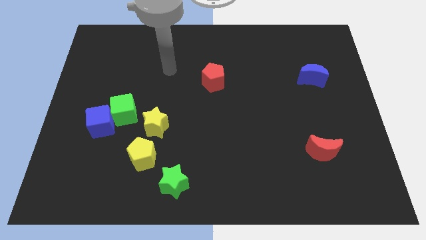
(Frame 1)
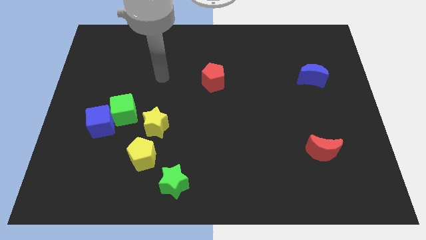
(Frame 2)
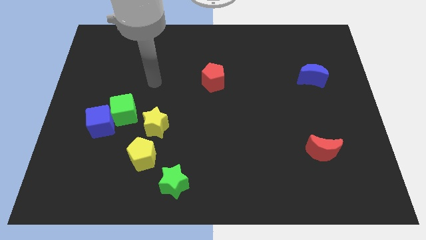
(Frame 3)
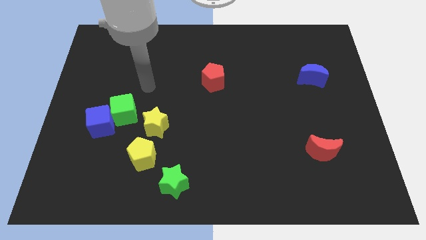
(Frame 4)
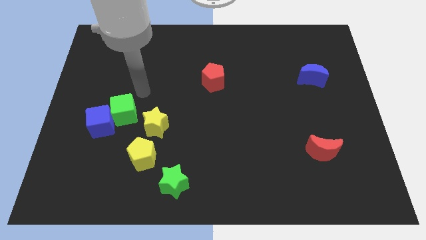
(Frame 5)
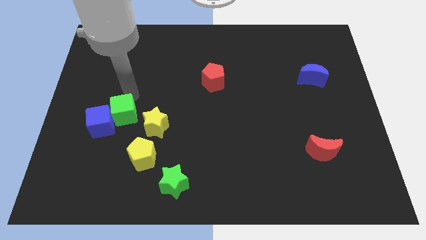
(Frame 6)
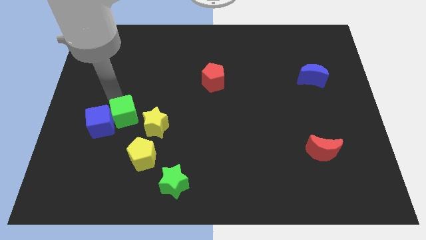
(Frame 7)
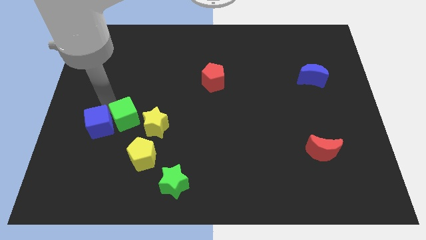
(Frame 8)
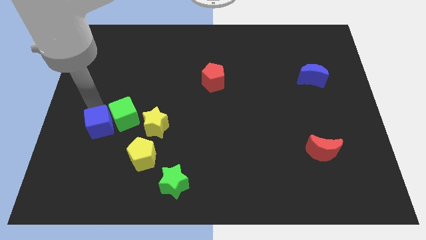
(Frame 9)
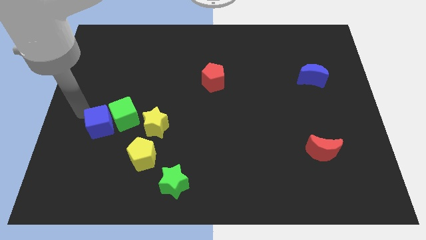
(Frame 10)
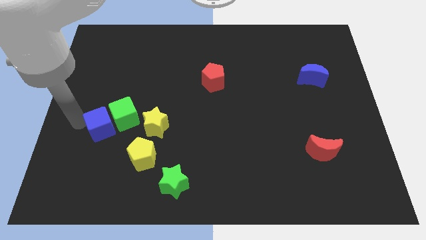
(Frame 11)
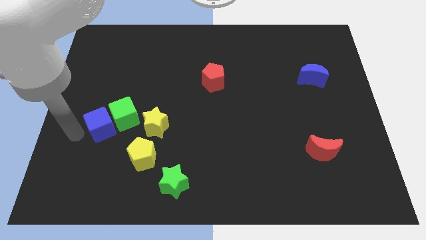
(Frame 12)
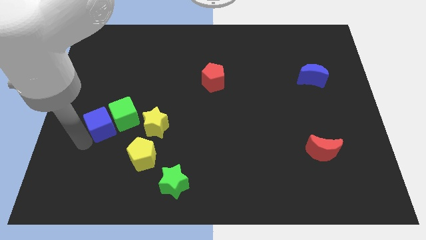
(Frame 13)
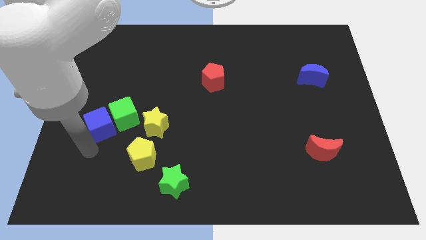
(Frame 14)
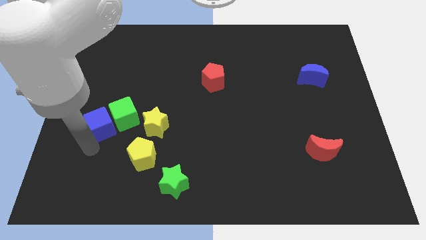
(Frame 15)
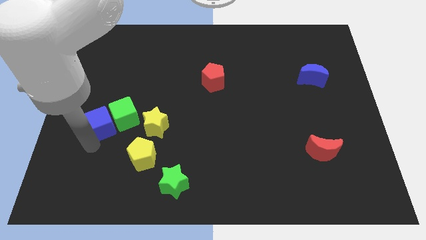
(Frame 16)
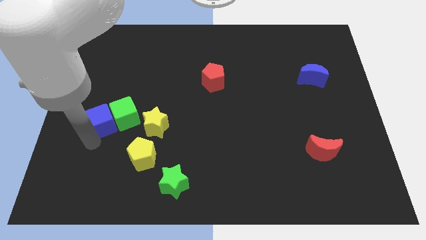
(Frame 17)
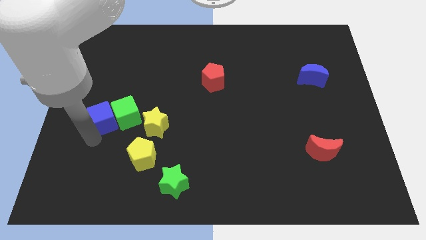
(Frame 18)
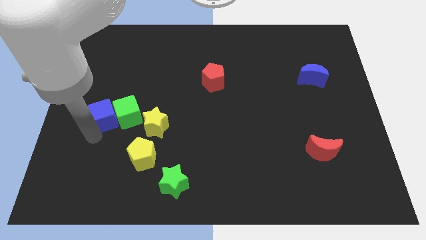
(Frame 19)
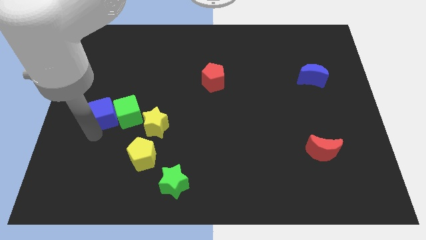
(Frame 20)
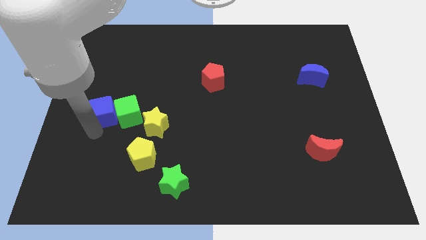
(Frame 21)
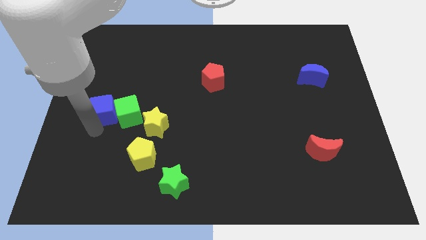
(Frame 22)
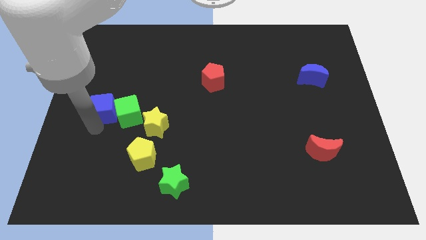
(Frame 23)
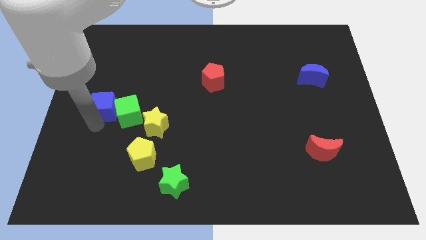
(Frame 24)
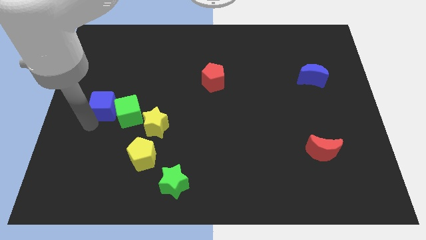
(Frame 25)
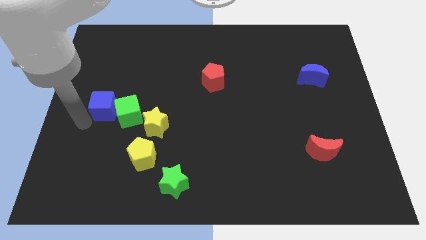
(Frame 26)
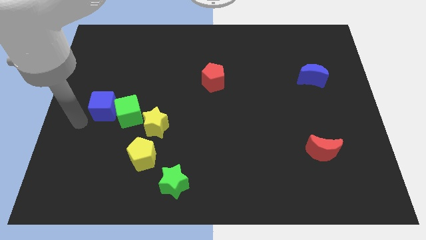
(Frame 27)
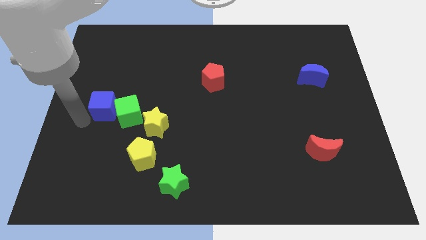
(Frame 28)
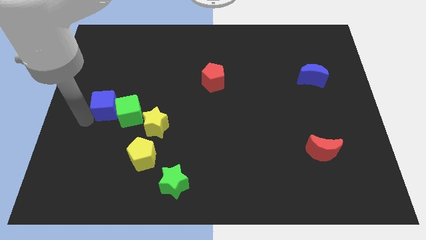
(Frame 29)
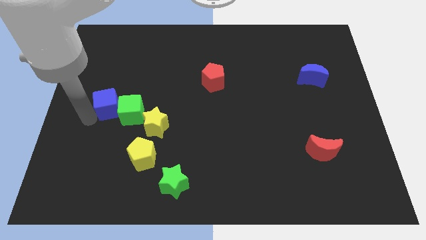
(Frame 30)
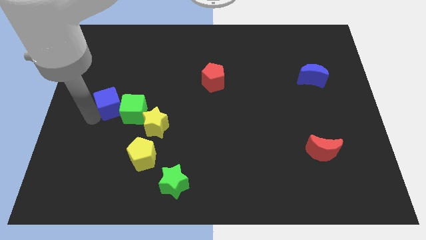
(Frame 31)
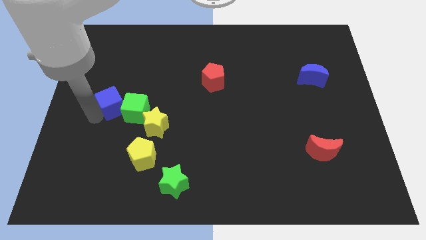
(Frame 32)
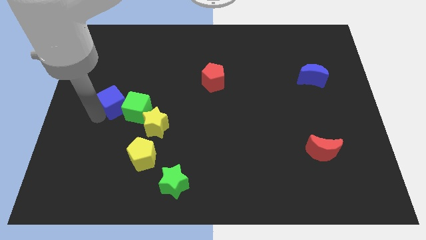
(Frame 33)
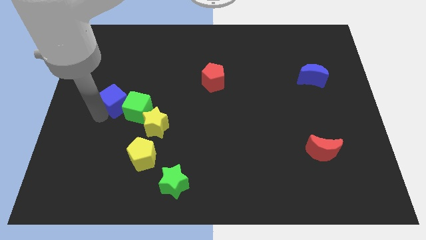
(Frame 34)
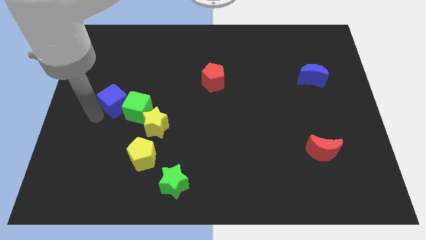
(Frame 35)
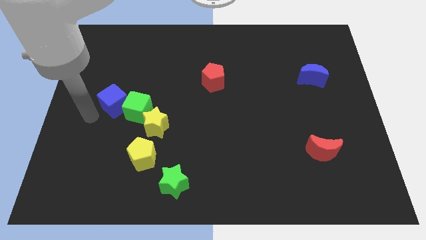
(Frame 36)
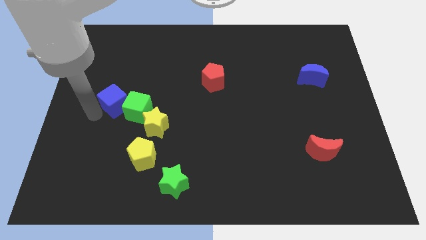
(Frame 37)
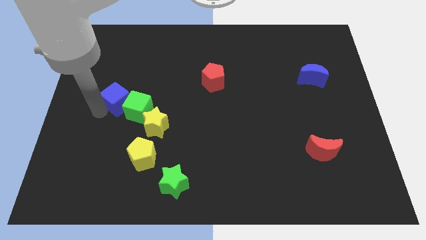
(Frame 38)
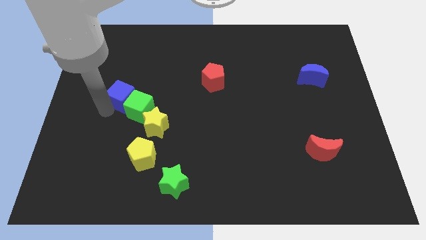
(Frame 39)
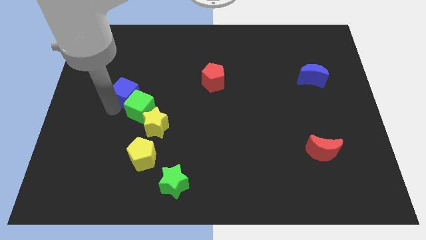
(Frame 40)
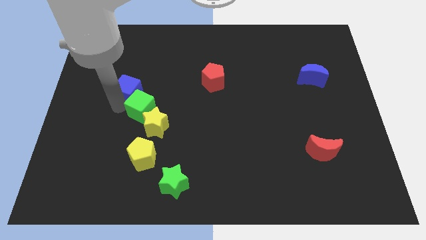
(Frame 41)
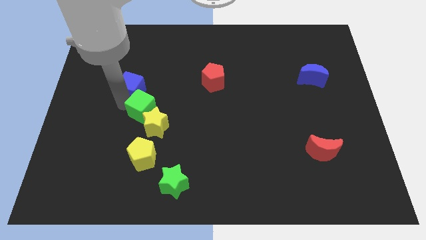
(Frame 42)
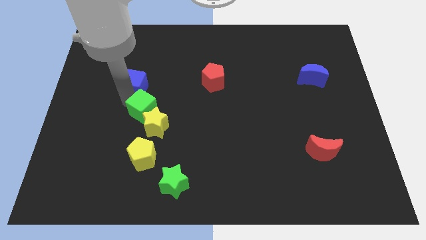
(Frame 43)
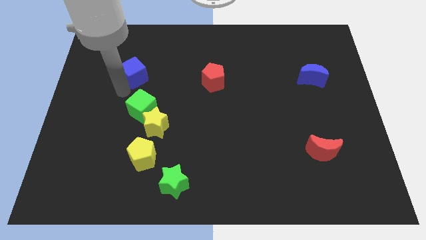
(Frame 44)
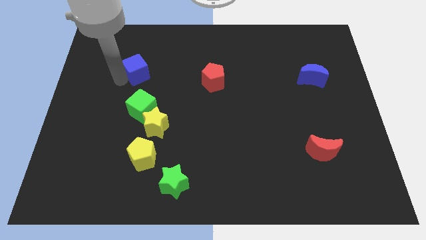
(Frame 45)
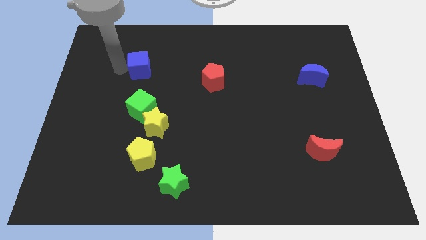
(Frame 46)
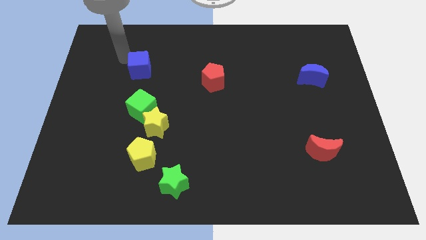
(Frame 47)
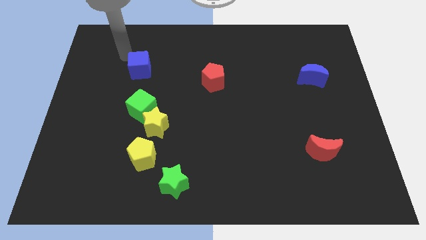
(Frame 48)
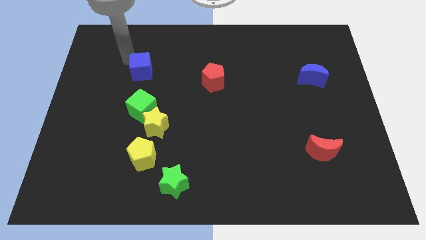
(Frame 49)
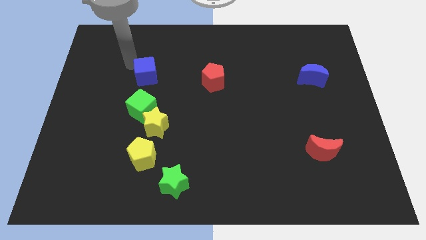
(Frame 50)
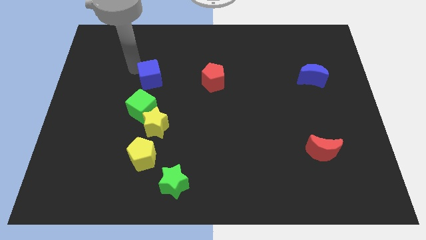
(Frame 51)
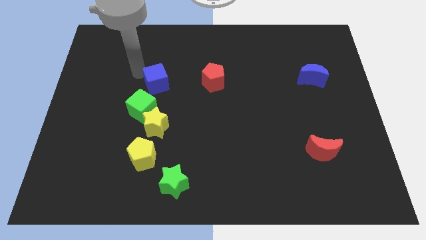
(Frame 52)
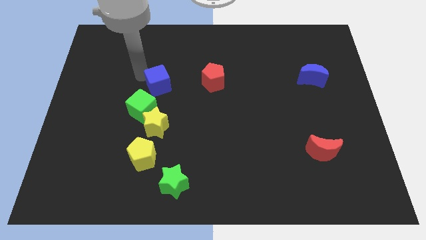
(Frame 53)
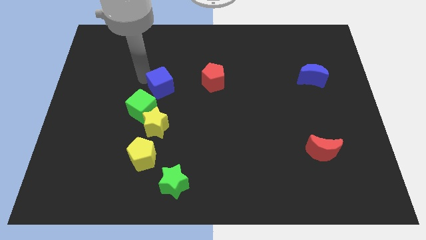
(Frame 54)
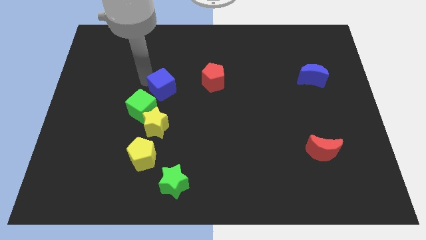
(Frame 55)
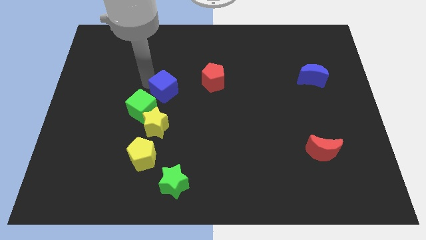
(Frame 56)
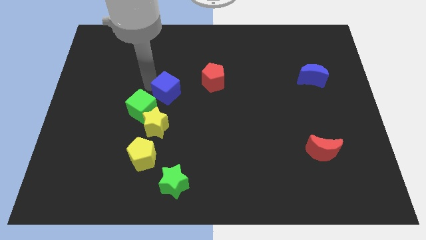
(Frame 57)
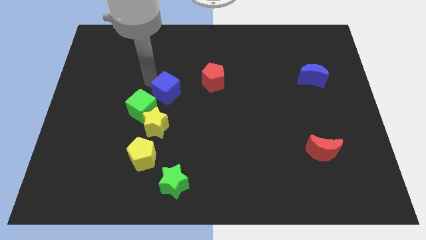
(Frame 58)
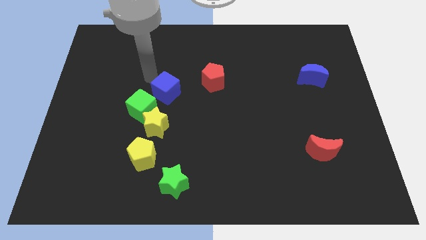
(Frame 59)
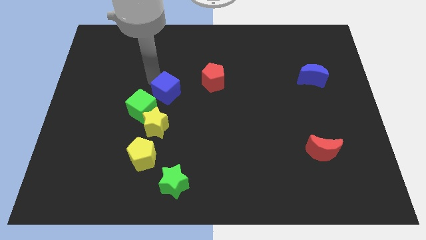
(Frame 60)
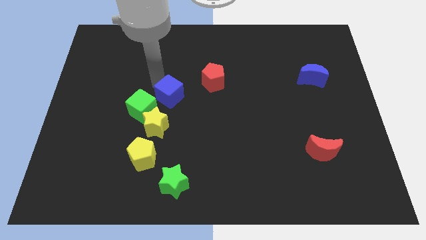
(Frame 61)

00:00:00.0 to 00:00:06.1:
push the blue cube to the right side of the green cube

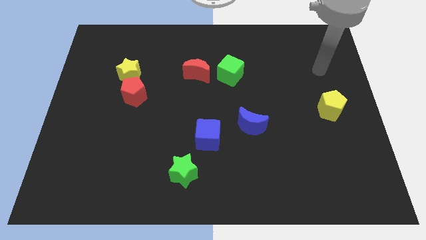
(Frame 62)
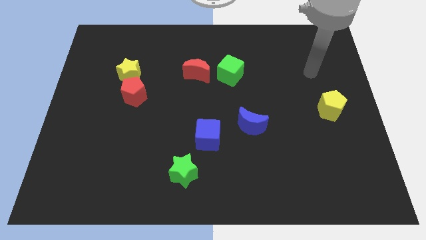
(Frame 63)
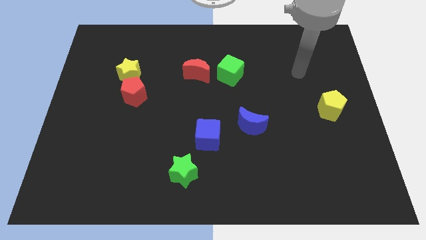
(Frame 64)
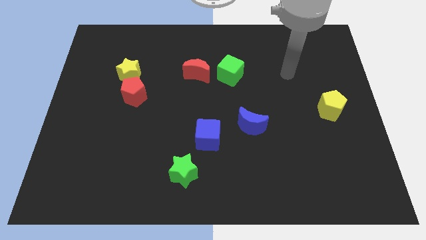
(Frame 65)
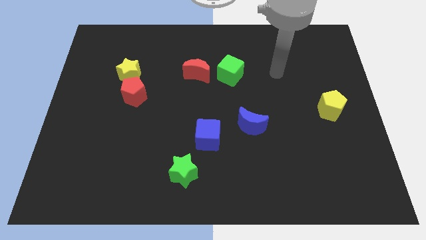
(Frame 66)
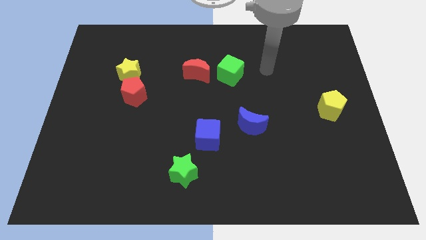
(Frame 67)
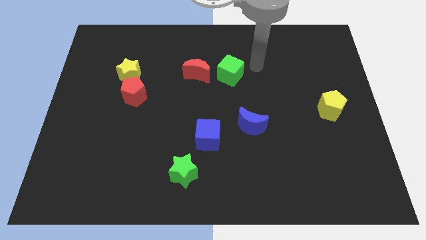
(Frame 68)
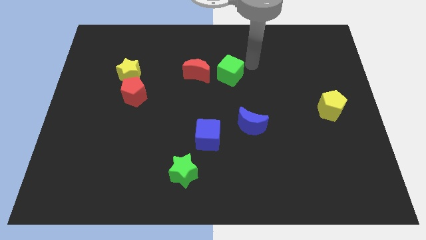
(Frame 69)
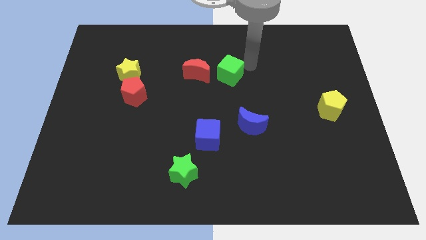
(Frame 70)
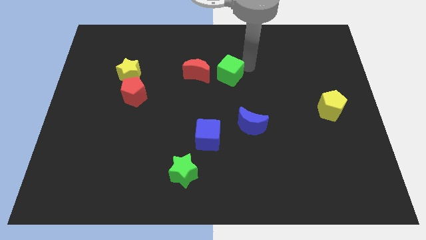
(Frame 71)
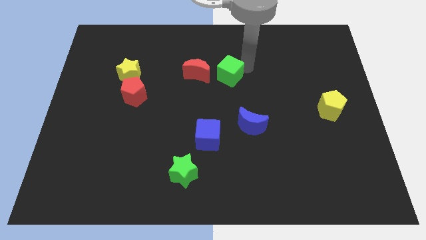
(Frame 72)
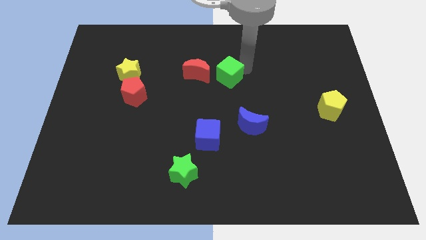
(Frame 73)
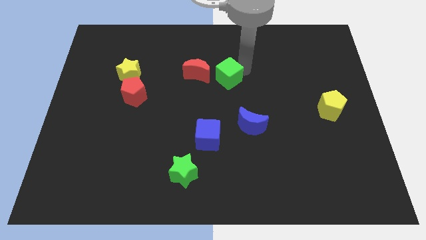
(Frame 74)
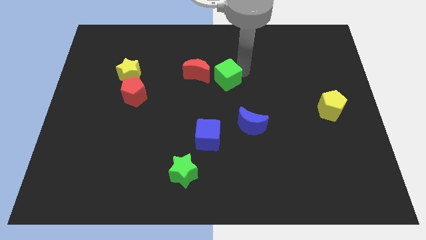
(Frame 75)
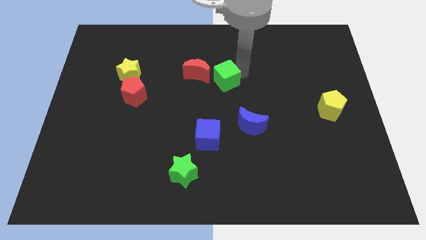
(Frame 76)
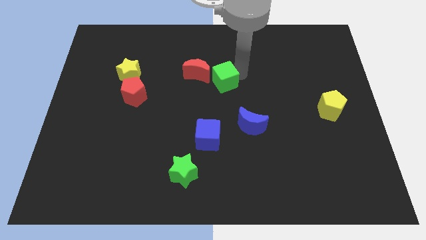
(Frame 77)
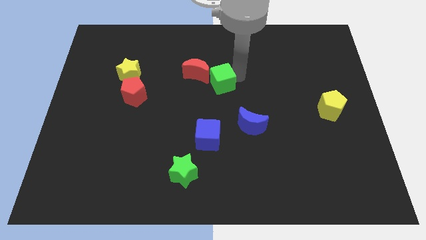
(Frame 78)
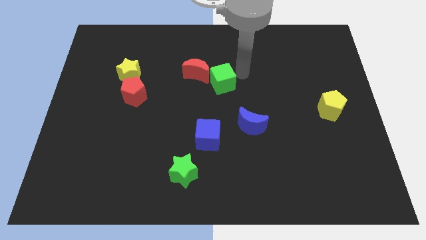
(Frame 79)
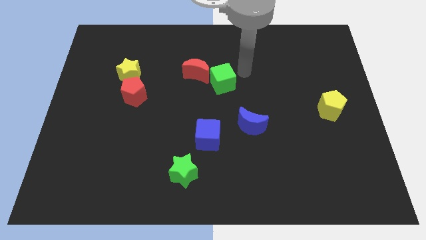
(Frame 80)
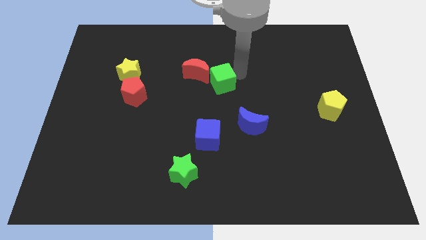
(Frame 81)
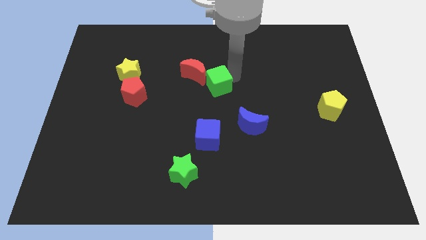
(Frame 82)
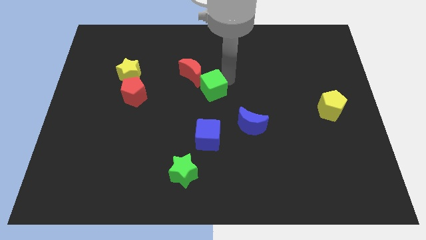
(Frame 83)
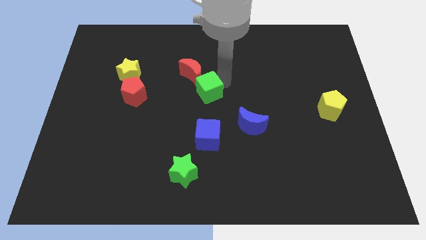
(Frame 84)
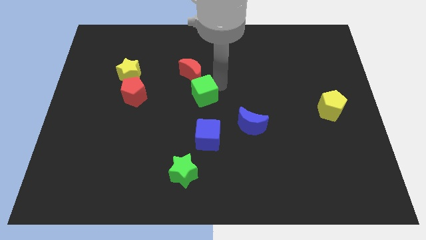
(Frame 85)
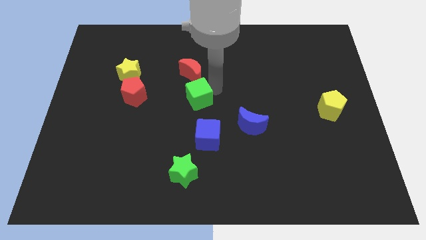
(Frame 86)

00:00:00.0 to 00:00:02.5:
put the green cube right of the red pentagon
